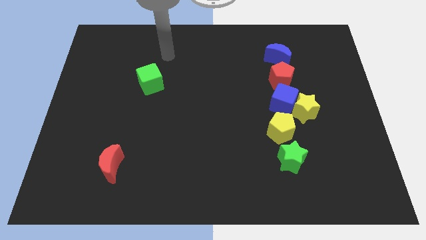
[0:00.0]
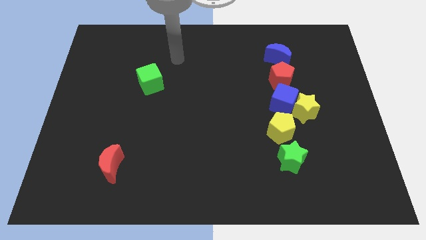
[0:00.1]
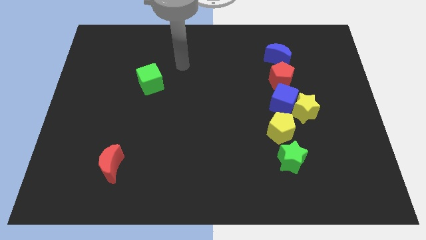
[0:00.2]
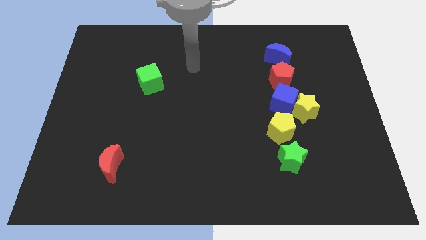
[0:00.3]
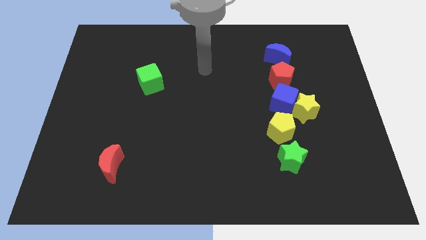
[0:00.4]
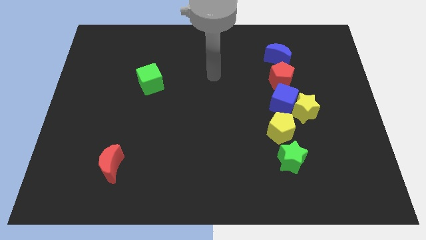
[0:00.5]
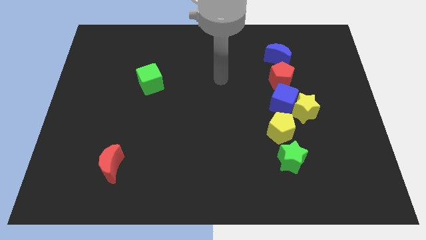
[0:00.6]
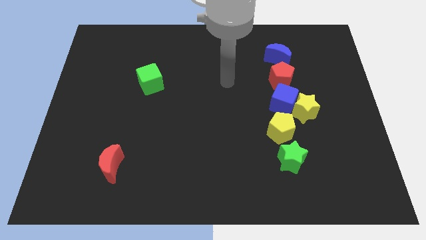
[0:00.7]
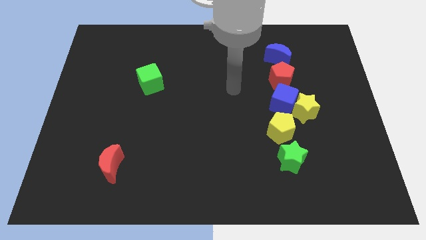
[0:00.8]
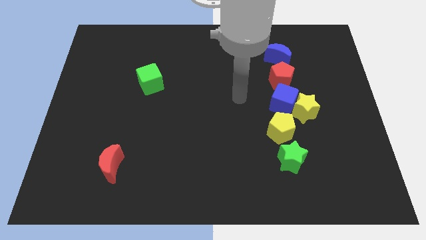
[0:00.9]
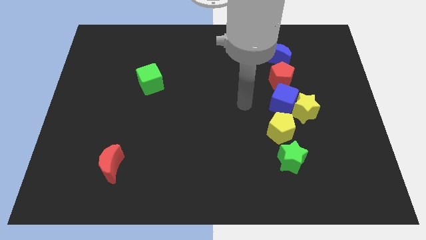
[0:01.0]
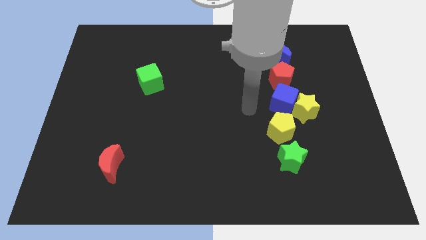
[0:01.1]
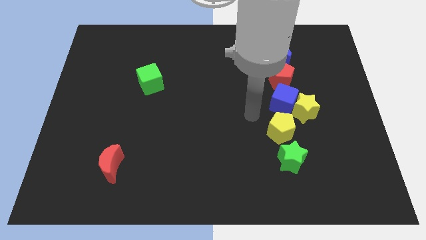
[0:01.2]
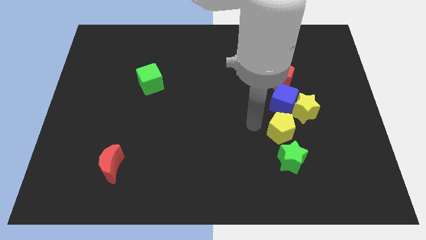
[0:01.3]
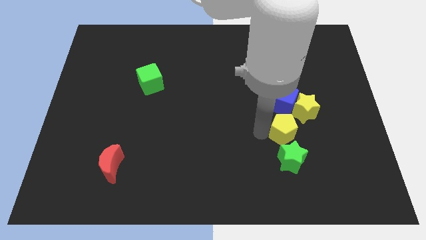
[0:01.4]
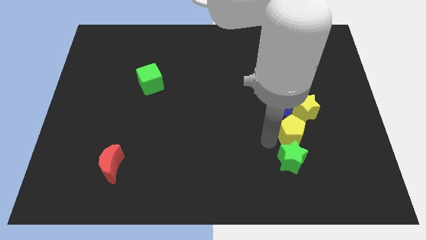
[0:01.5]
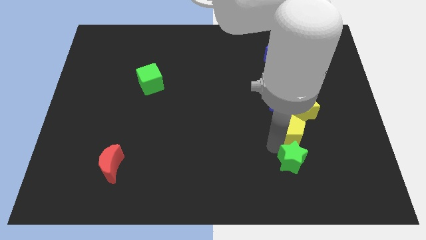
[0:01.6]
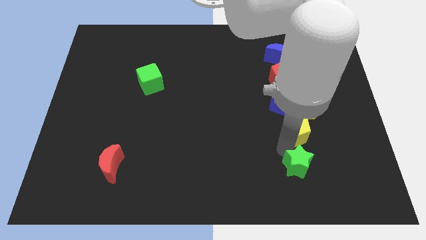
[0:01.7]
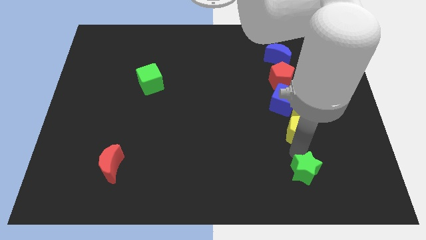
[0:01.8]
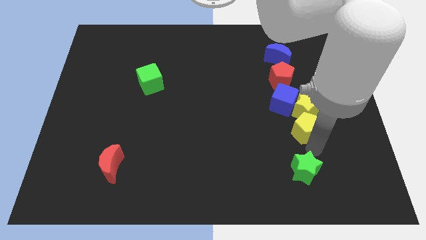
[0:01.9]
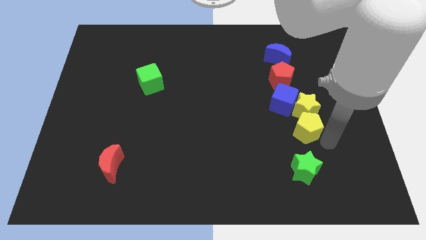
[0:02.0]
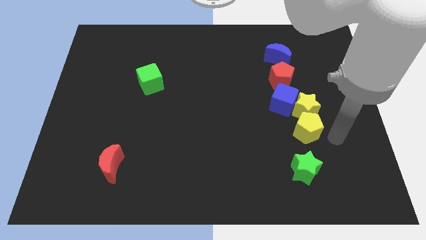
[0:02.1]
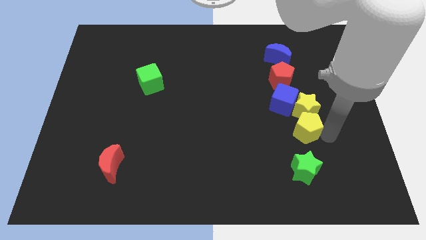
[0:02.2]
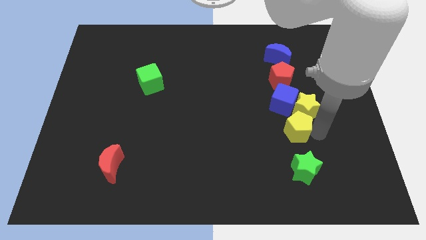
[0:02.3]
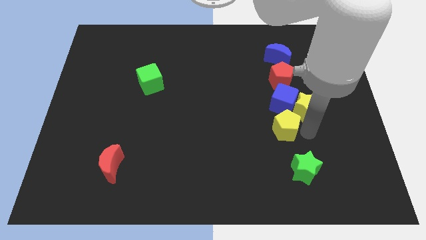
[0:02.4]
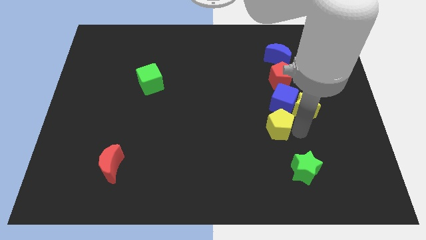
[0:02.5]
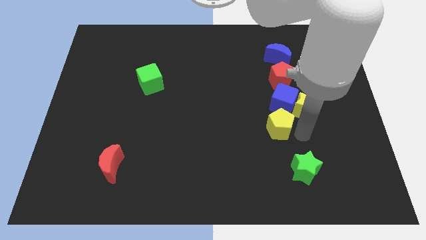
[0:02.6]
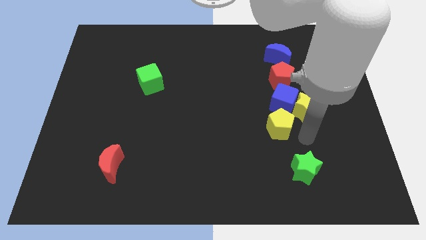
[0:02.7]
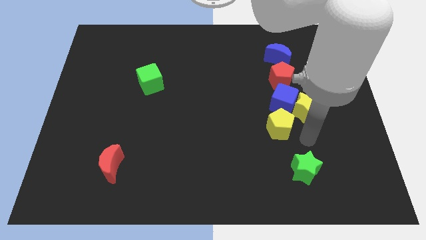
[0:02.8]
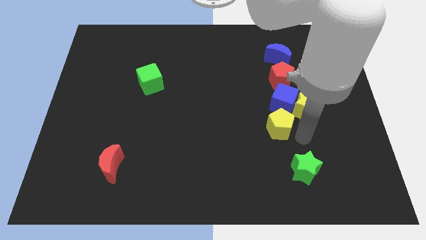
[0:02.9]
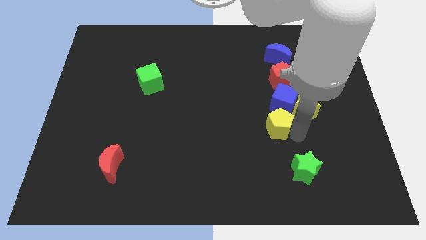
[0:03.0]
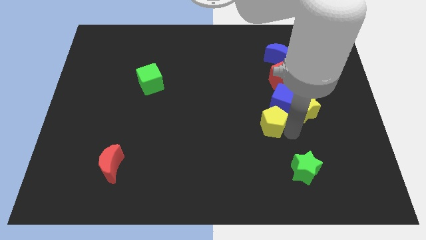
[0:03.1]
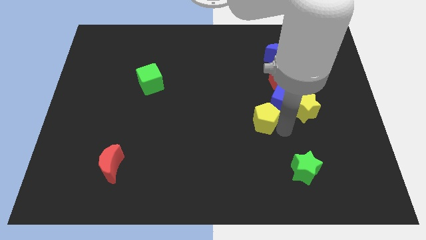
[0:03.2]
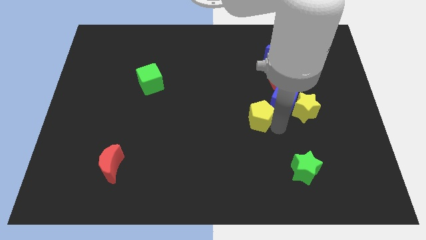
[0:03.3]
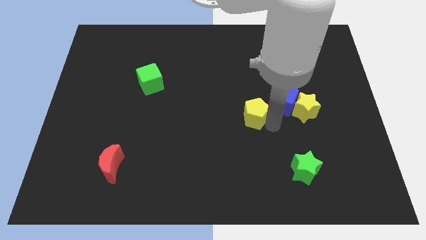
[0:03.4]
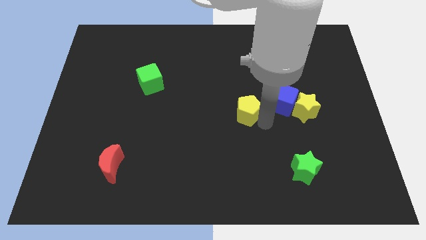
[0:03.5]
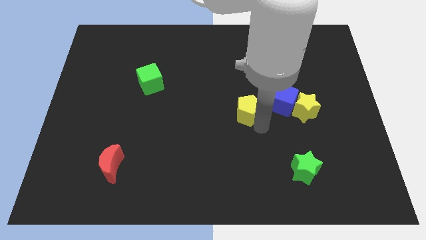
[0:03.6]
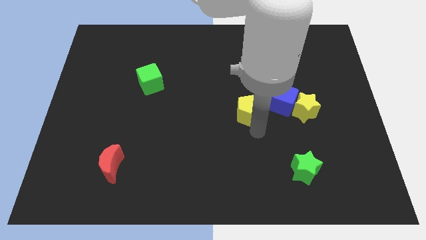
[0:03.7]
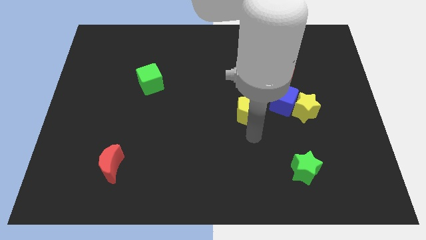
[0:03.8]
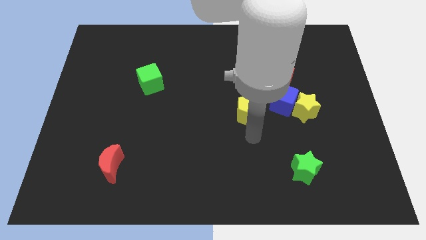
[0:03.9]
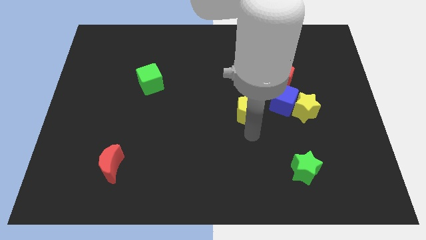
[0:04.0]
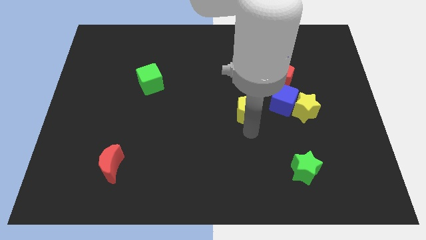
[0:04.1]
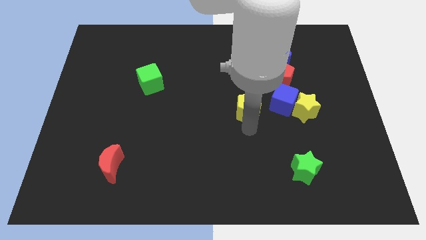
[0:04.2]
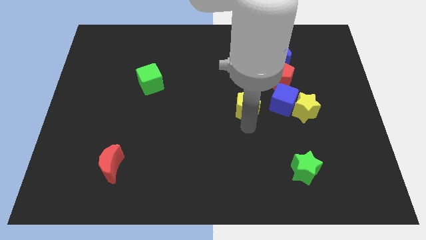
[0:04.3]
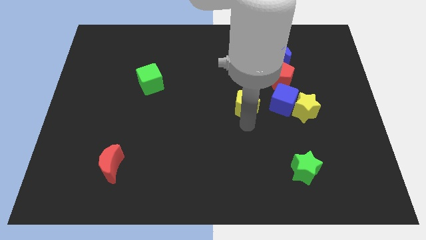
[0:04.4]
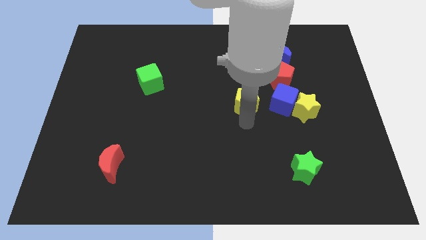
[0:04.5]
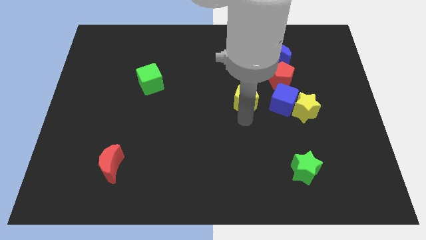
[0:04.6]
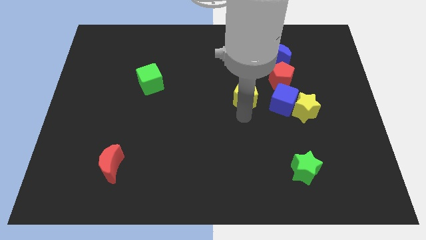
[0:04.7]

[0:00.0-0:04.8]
slide the yellow pentagon up a little bit

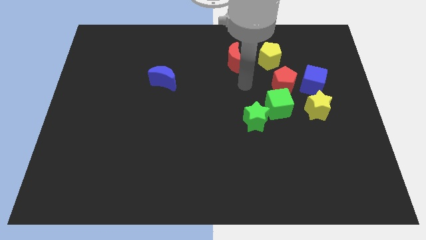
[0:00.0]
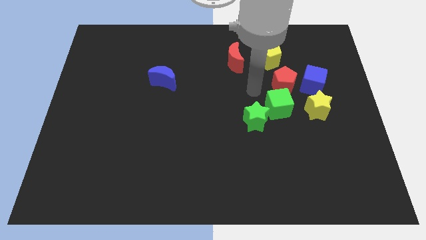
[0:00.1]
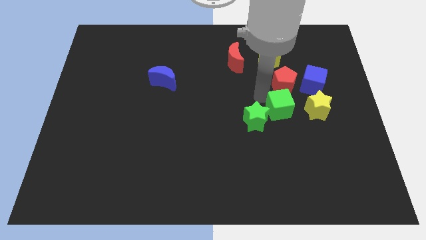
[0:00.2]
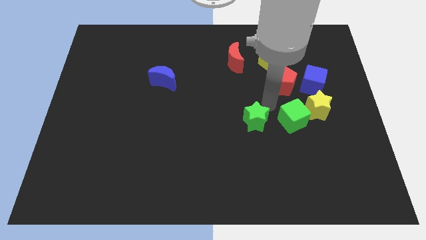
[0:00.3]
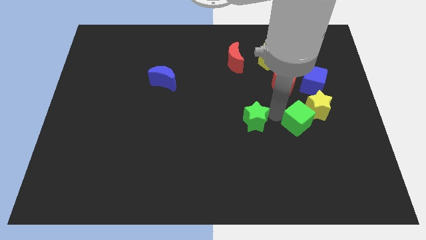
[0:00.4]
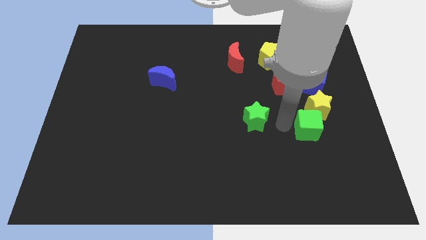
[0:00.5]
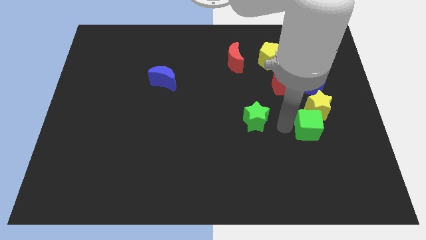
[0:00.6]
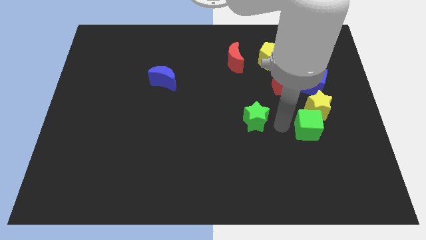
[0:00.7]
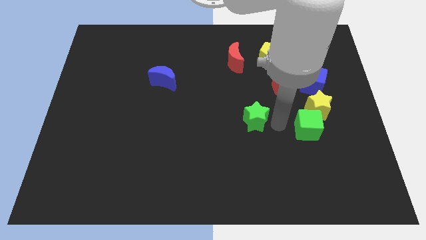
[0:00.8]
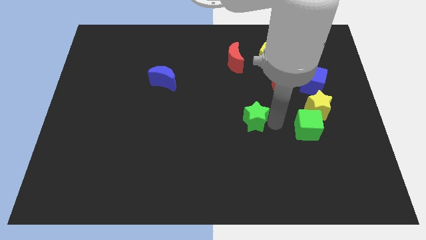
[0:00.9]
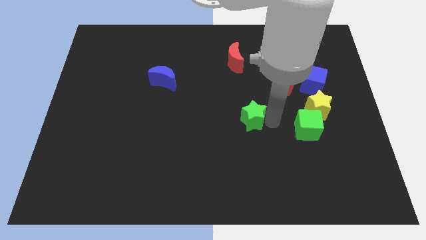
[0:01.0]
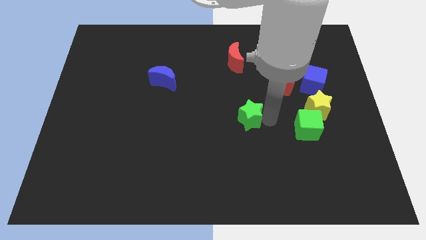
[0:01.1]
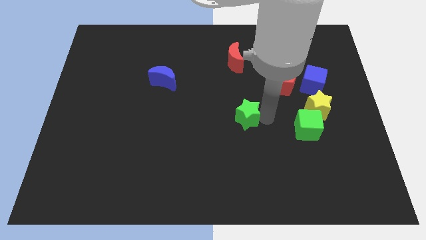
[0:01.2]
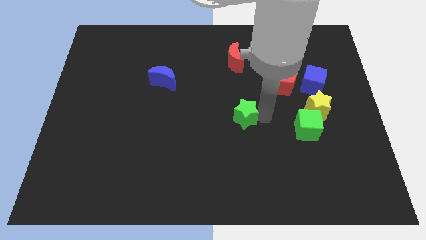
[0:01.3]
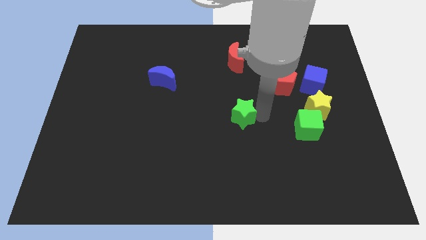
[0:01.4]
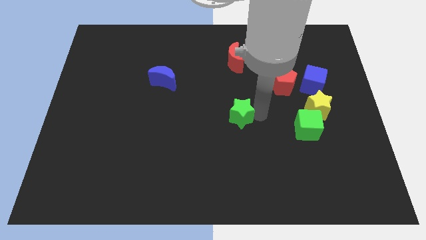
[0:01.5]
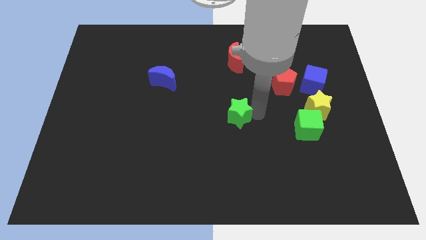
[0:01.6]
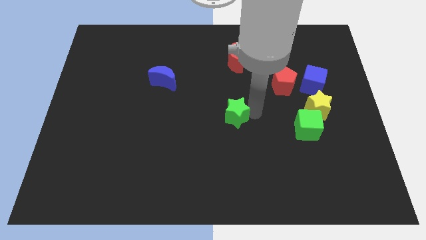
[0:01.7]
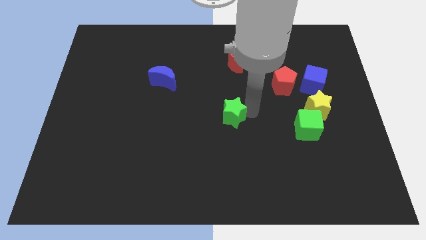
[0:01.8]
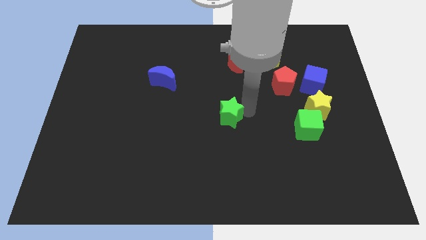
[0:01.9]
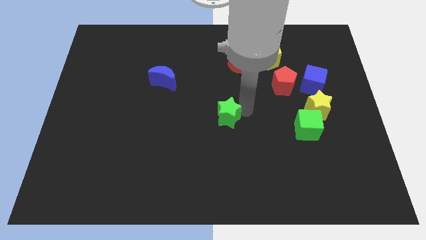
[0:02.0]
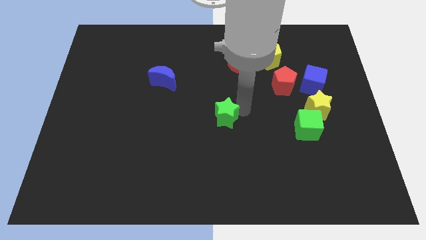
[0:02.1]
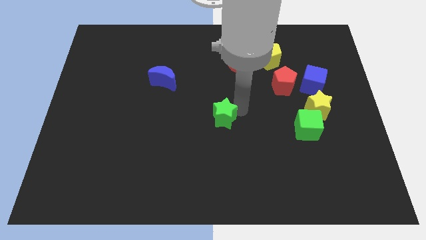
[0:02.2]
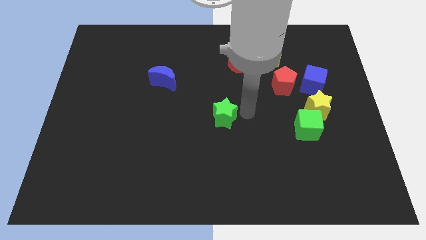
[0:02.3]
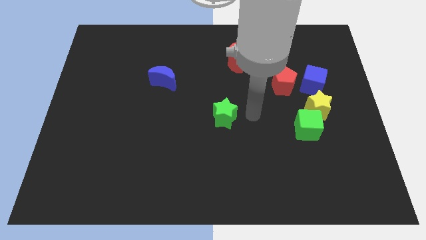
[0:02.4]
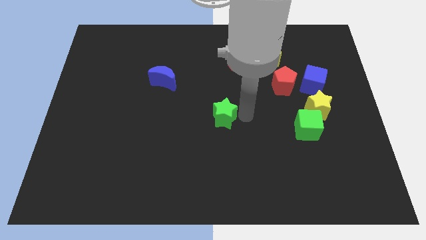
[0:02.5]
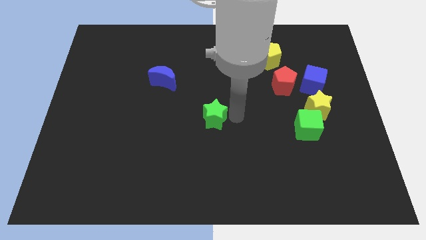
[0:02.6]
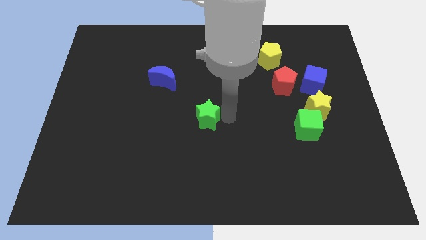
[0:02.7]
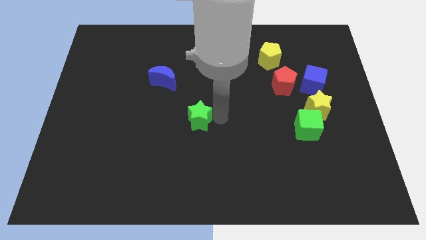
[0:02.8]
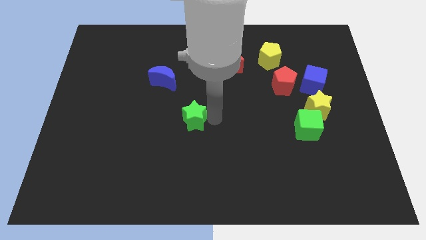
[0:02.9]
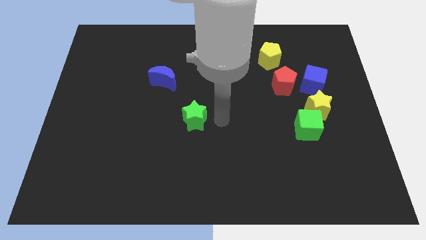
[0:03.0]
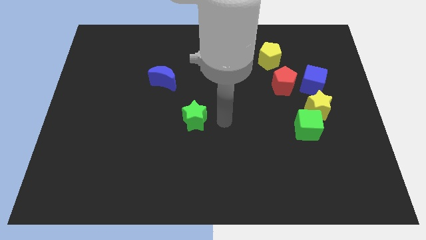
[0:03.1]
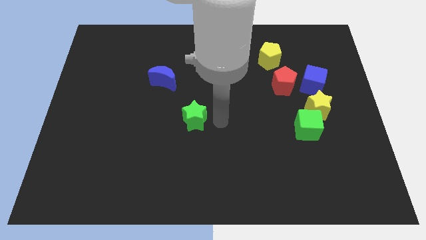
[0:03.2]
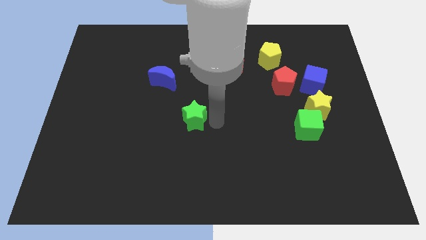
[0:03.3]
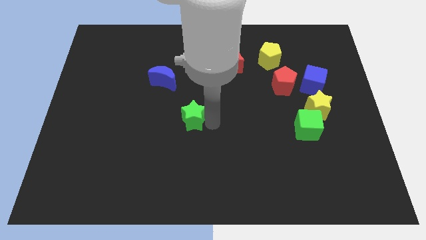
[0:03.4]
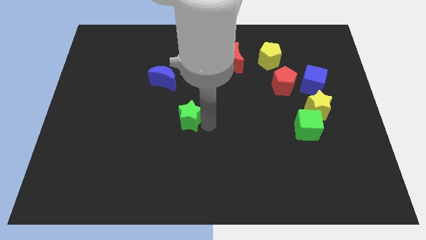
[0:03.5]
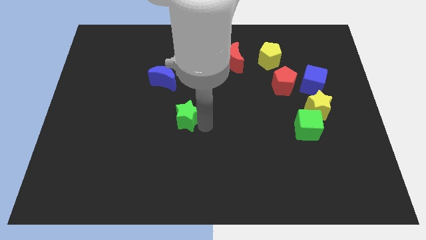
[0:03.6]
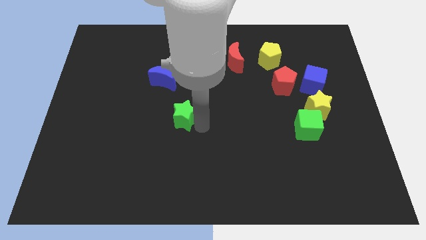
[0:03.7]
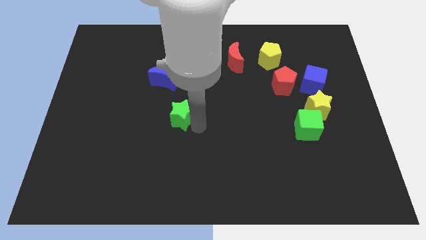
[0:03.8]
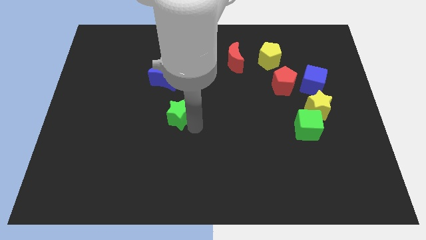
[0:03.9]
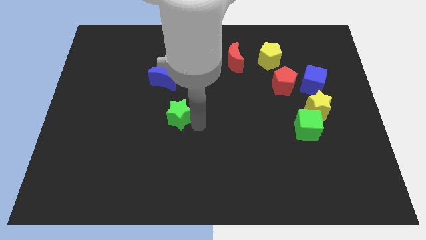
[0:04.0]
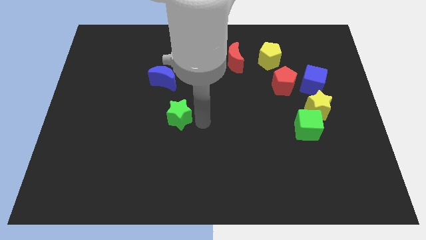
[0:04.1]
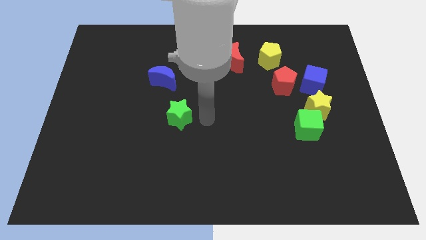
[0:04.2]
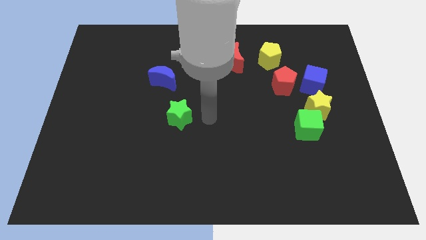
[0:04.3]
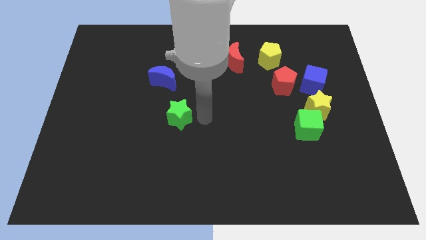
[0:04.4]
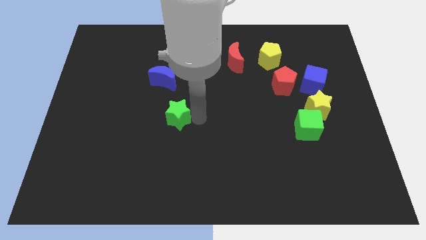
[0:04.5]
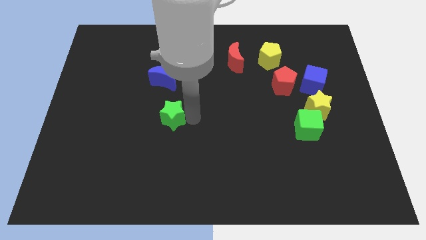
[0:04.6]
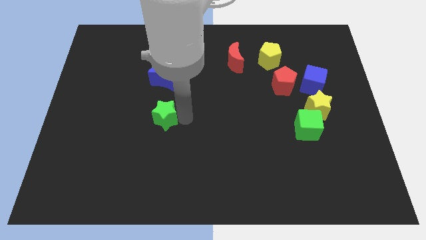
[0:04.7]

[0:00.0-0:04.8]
push the green star to the left
